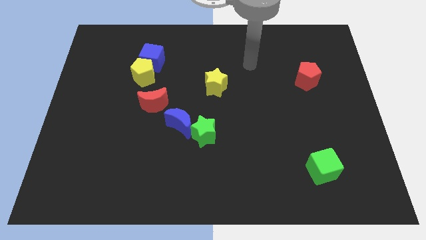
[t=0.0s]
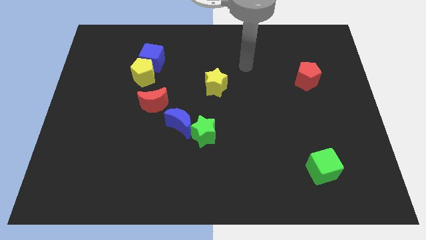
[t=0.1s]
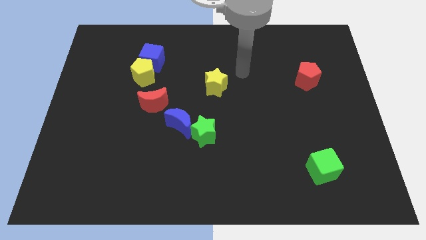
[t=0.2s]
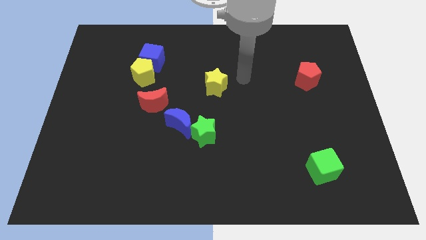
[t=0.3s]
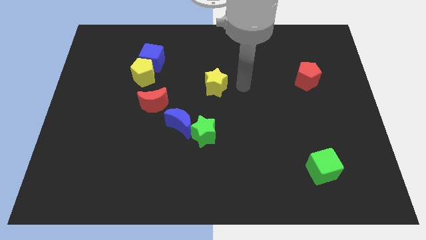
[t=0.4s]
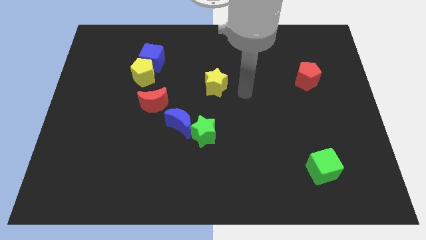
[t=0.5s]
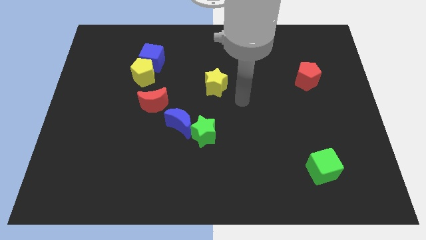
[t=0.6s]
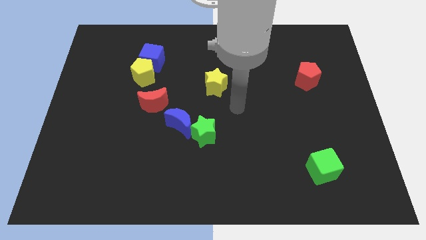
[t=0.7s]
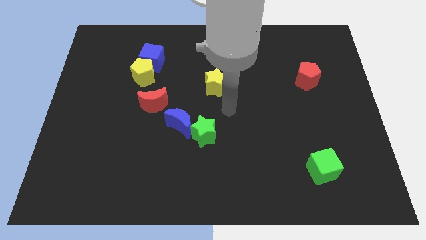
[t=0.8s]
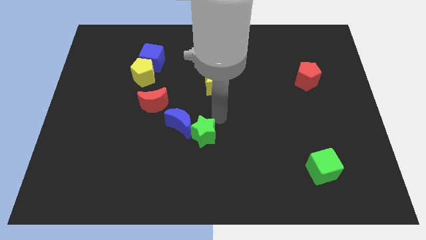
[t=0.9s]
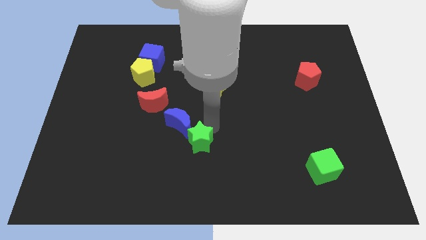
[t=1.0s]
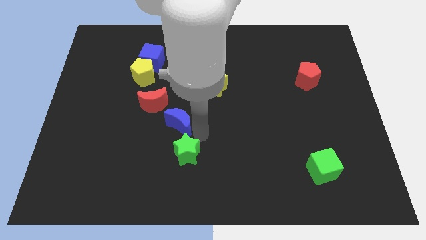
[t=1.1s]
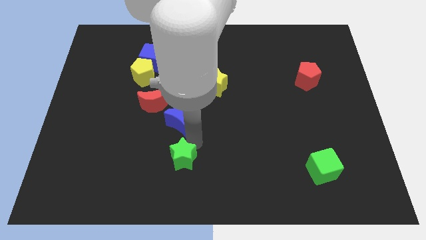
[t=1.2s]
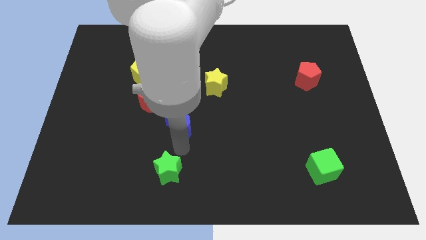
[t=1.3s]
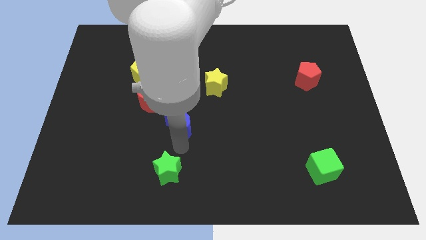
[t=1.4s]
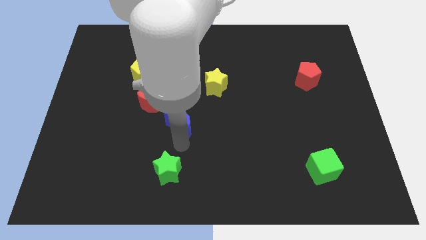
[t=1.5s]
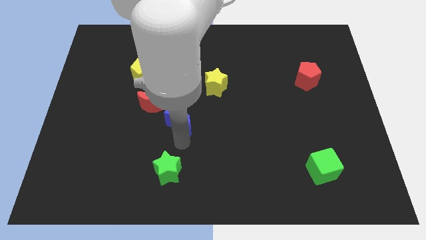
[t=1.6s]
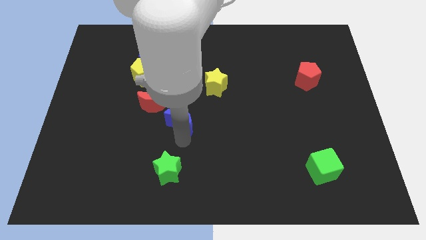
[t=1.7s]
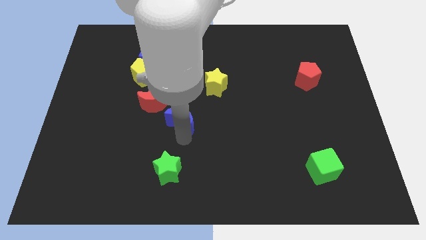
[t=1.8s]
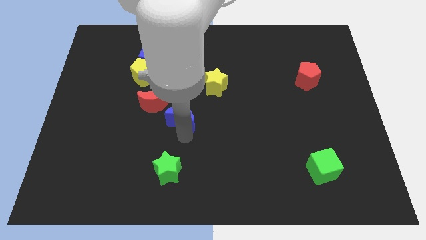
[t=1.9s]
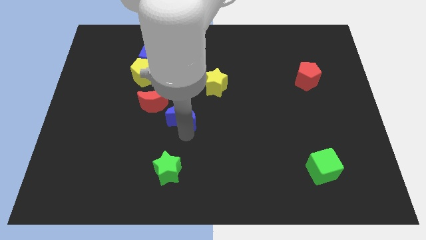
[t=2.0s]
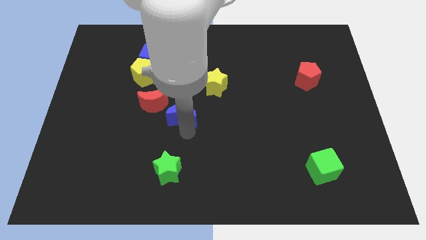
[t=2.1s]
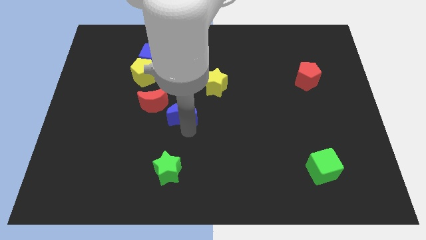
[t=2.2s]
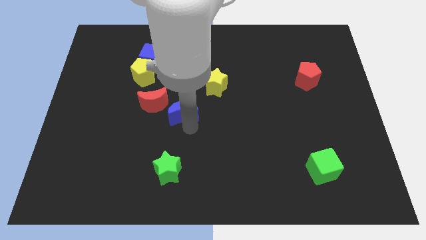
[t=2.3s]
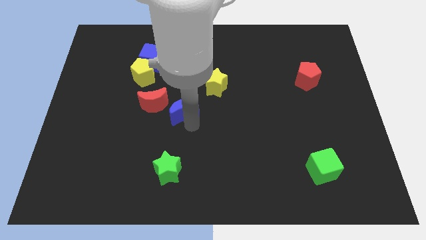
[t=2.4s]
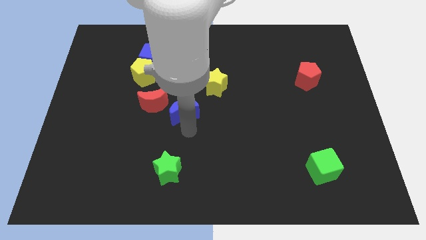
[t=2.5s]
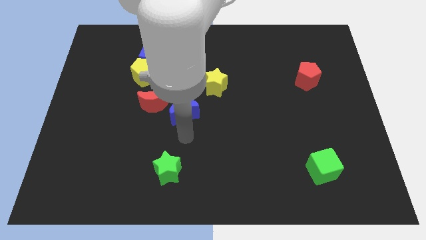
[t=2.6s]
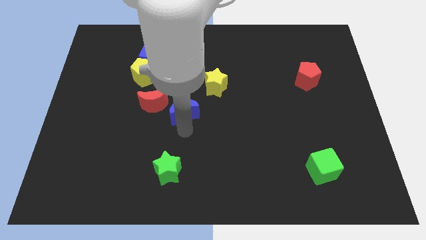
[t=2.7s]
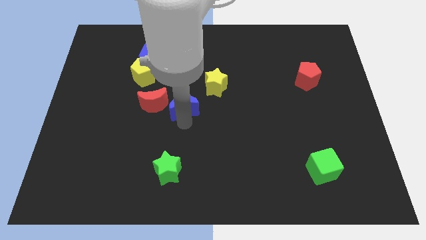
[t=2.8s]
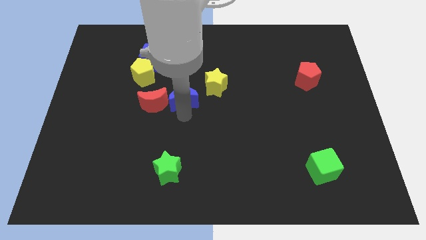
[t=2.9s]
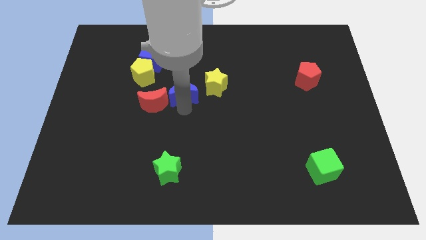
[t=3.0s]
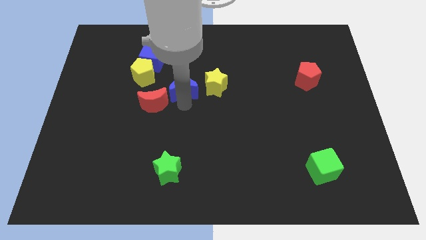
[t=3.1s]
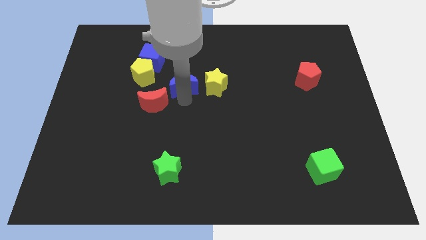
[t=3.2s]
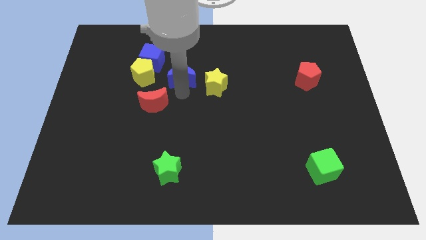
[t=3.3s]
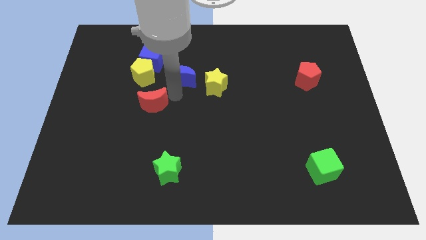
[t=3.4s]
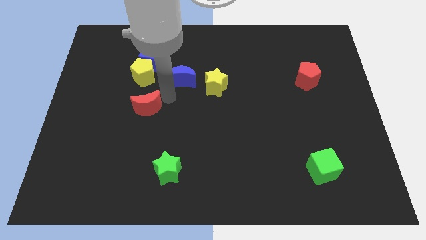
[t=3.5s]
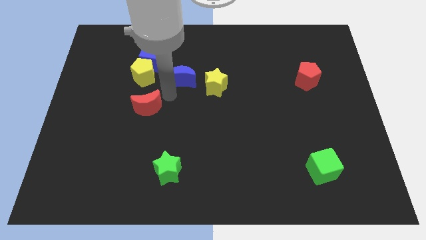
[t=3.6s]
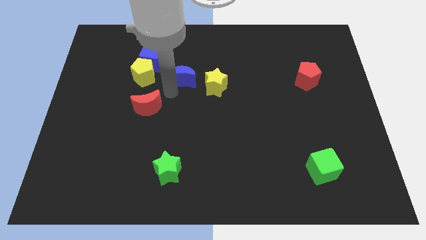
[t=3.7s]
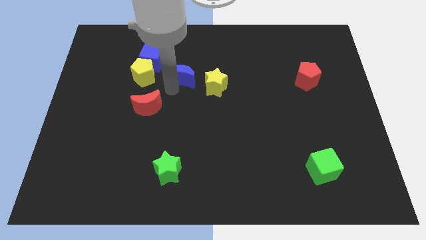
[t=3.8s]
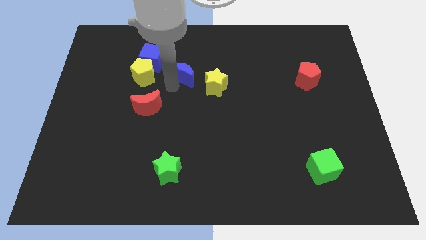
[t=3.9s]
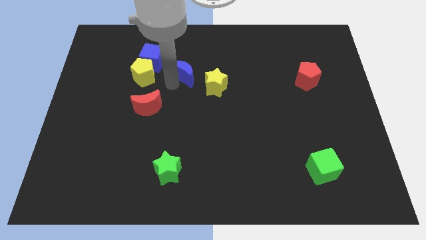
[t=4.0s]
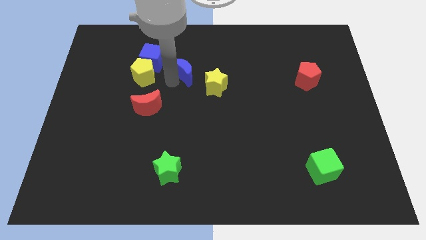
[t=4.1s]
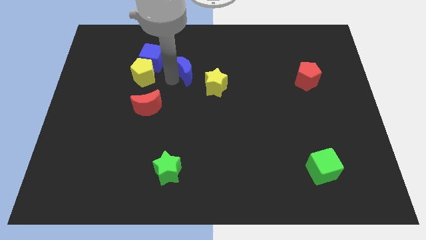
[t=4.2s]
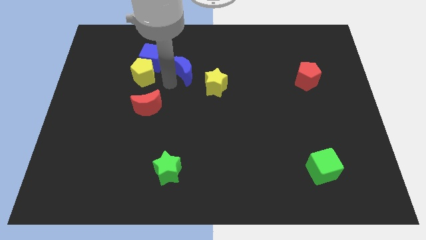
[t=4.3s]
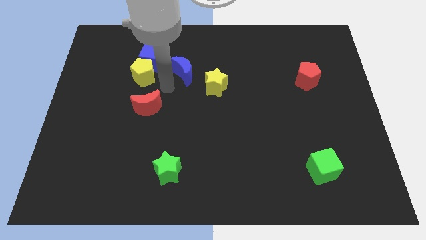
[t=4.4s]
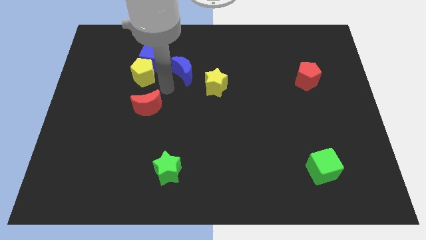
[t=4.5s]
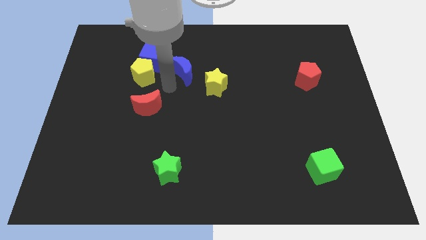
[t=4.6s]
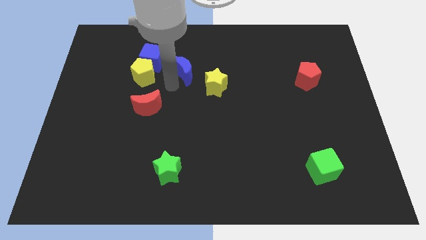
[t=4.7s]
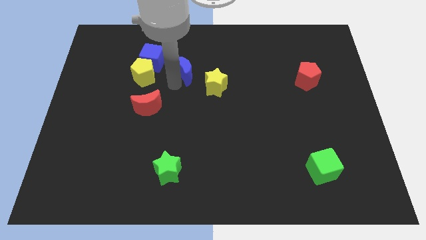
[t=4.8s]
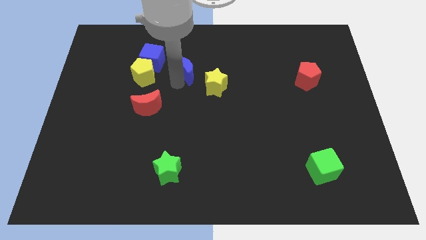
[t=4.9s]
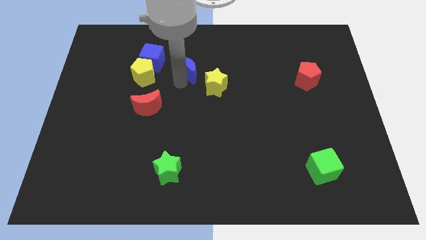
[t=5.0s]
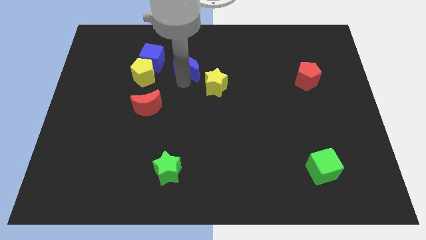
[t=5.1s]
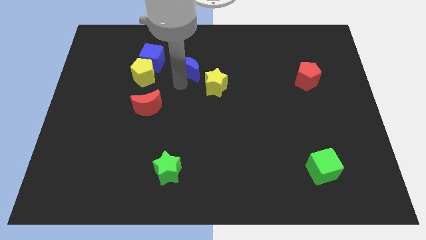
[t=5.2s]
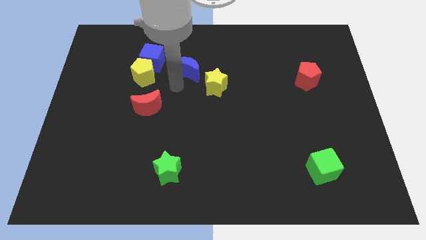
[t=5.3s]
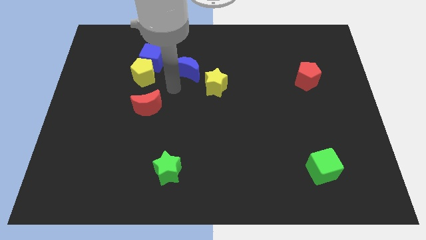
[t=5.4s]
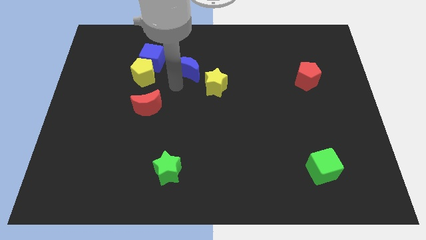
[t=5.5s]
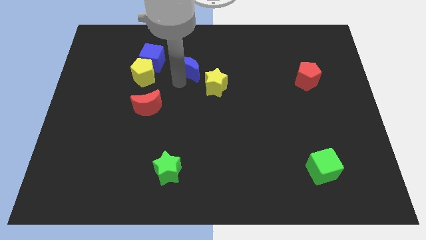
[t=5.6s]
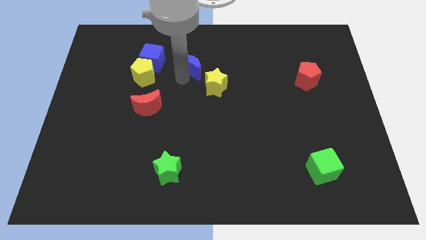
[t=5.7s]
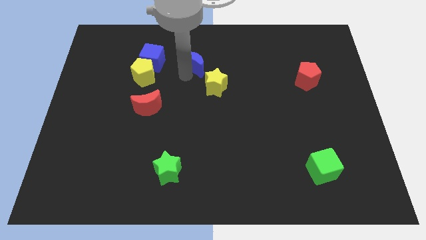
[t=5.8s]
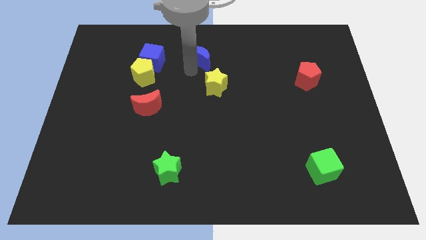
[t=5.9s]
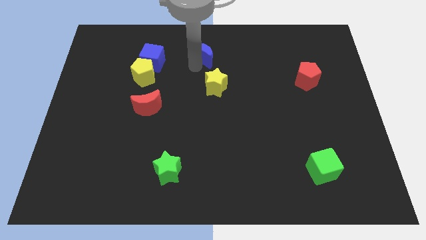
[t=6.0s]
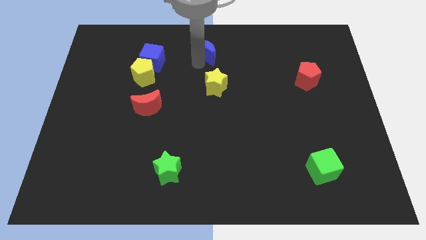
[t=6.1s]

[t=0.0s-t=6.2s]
put the blue moon to the towards your base
